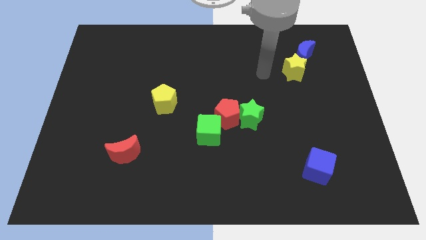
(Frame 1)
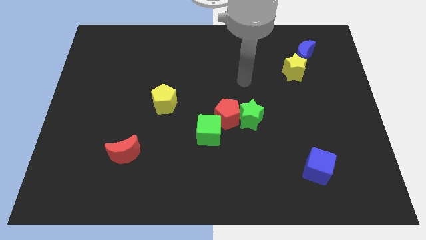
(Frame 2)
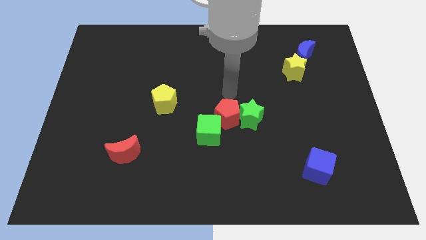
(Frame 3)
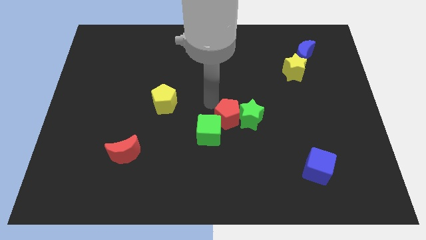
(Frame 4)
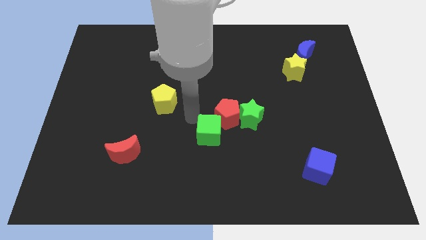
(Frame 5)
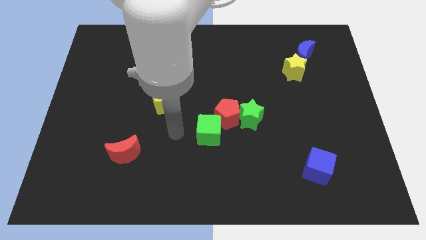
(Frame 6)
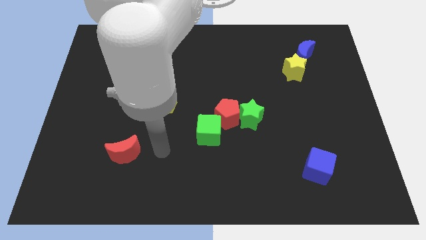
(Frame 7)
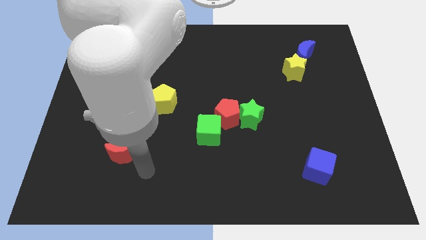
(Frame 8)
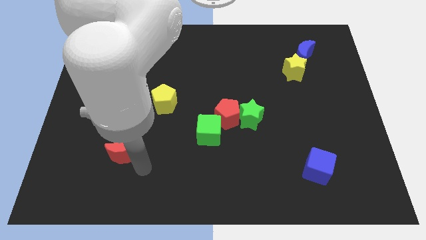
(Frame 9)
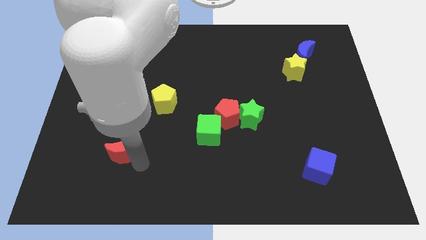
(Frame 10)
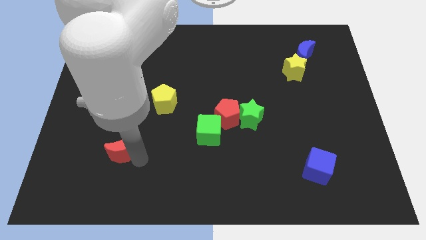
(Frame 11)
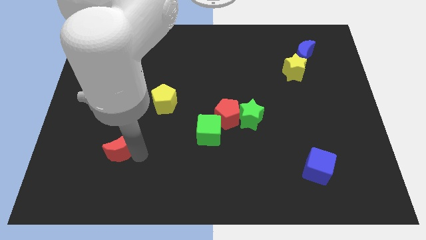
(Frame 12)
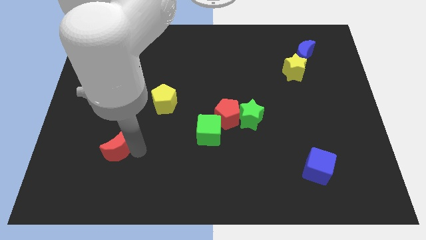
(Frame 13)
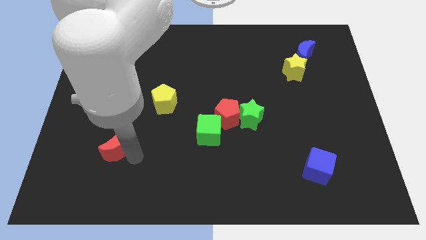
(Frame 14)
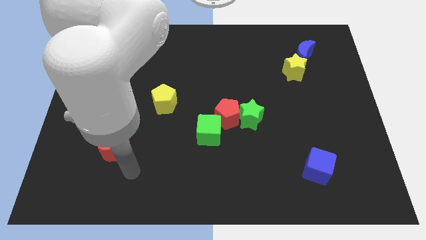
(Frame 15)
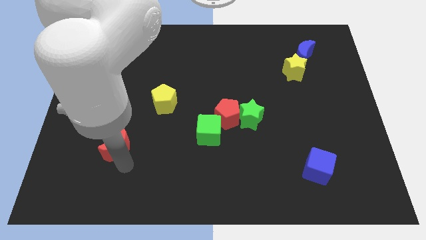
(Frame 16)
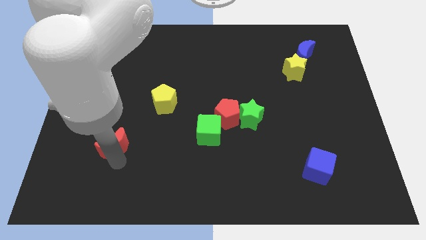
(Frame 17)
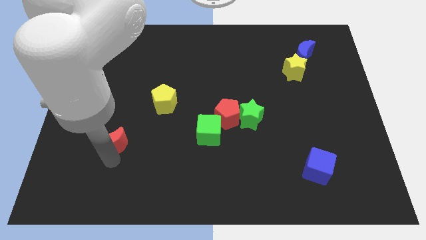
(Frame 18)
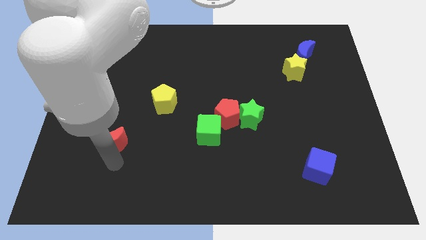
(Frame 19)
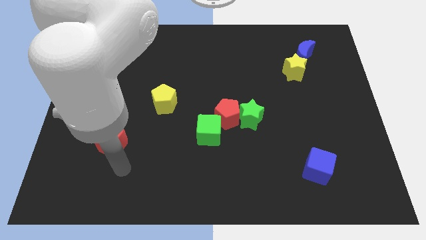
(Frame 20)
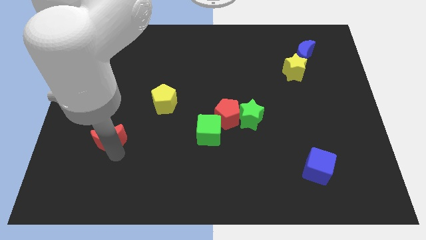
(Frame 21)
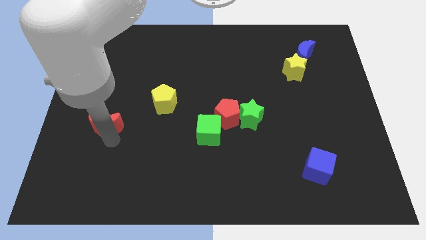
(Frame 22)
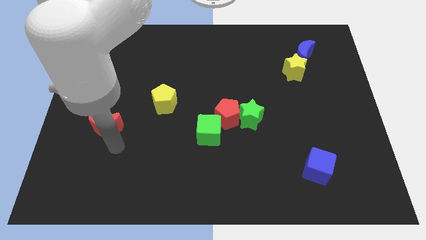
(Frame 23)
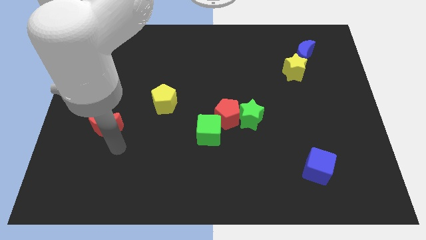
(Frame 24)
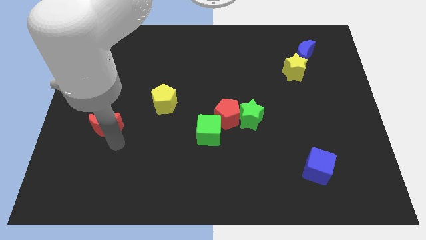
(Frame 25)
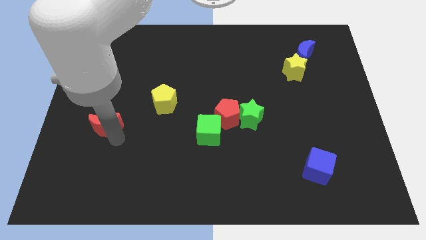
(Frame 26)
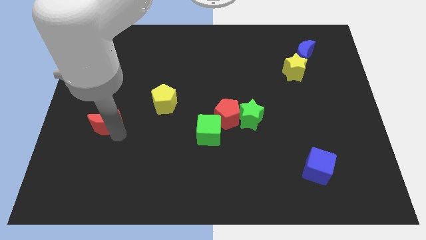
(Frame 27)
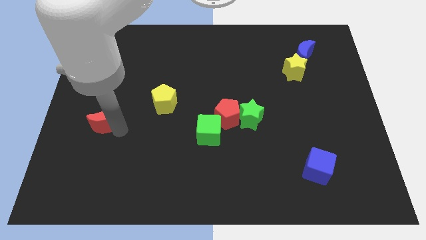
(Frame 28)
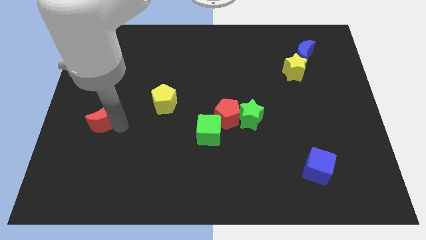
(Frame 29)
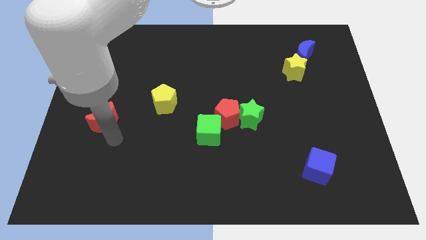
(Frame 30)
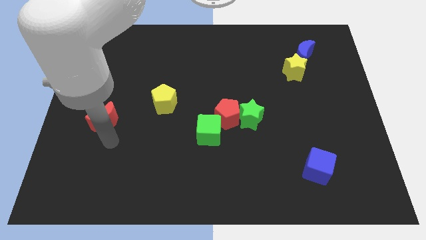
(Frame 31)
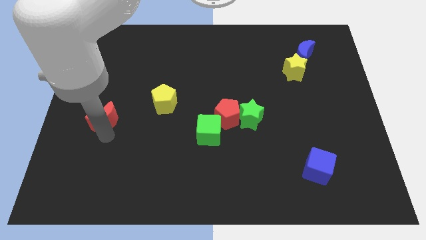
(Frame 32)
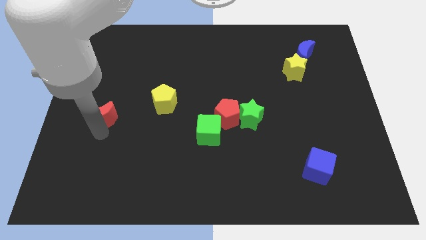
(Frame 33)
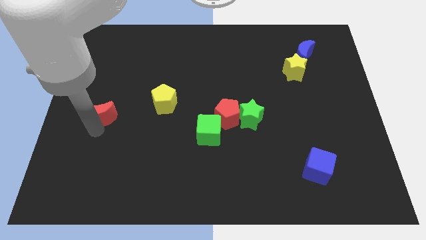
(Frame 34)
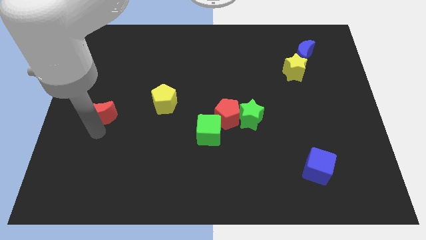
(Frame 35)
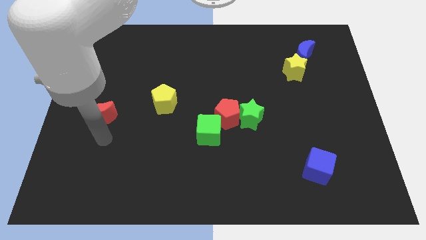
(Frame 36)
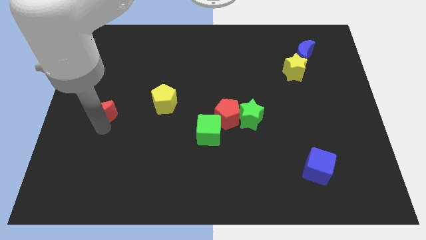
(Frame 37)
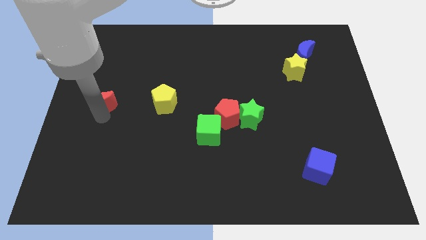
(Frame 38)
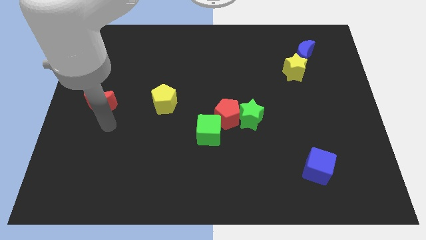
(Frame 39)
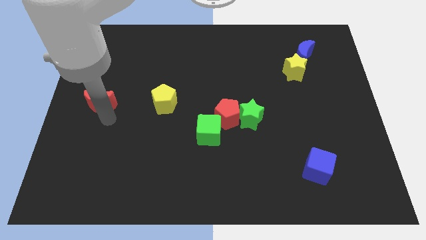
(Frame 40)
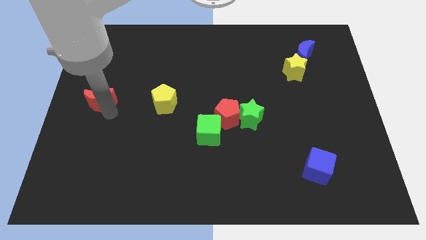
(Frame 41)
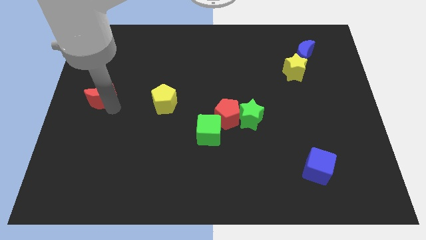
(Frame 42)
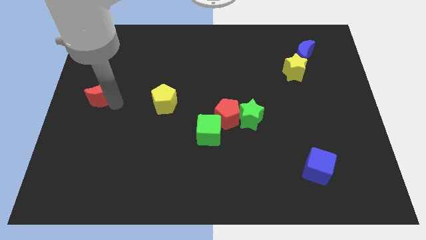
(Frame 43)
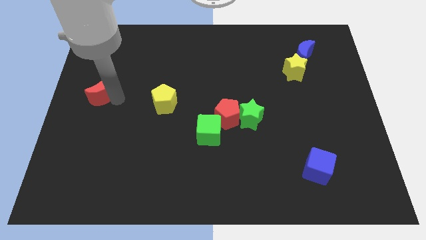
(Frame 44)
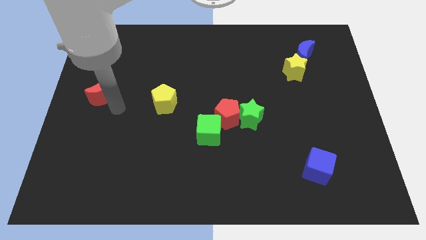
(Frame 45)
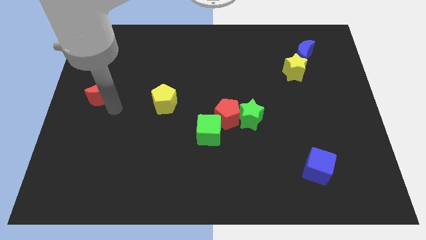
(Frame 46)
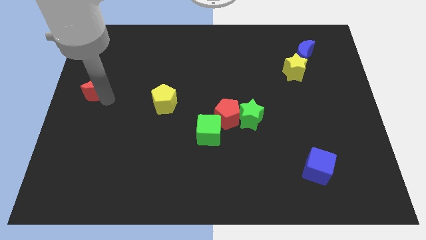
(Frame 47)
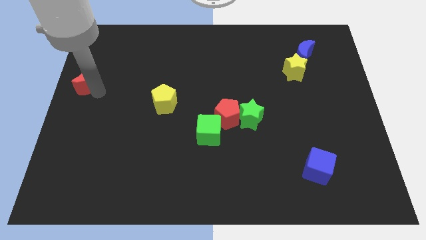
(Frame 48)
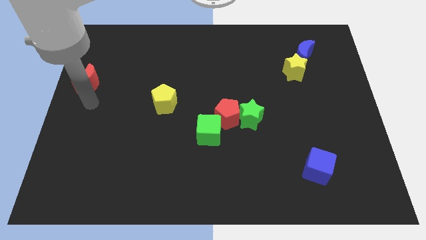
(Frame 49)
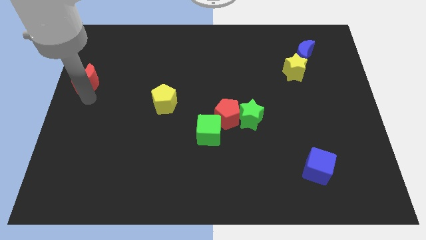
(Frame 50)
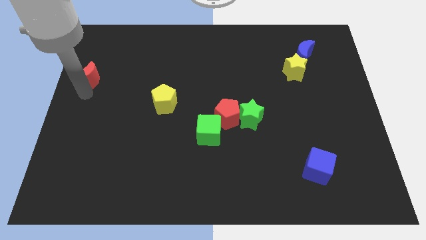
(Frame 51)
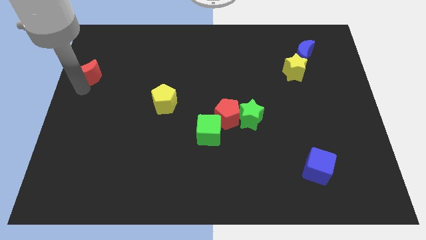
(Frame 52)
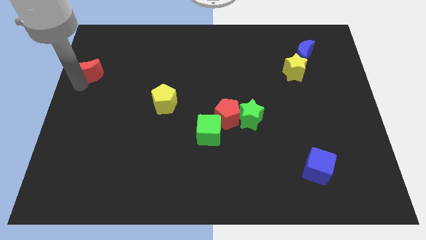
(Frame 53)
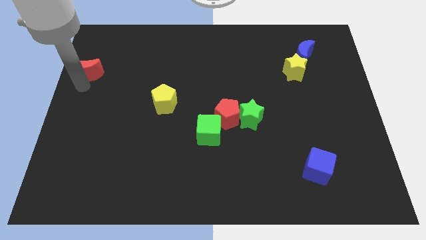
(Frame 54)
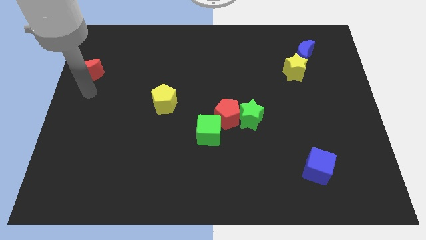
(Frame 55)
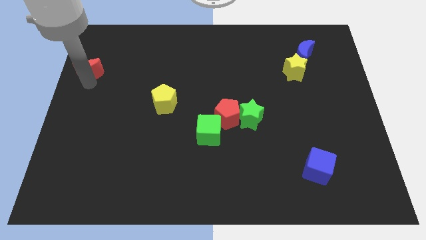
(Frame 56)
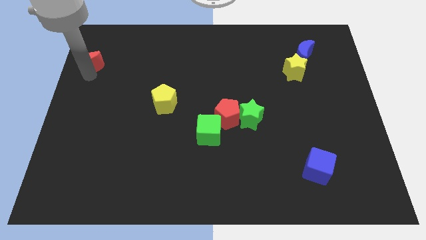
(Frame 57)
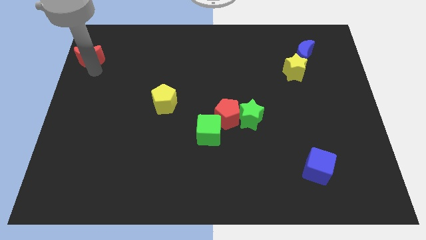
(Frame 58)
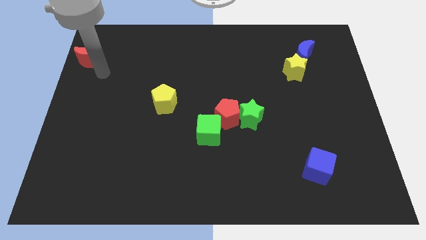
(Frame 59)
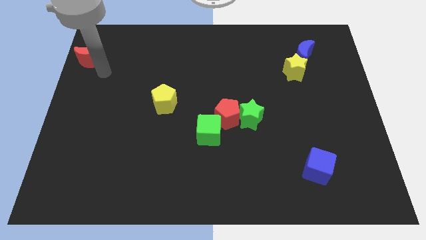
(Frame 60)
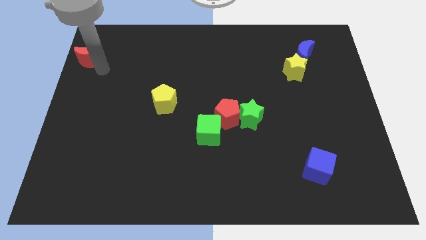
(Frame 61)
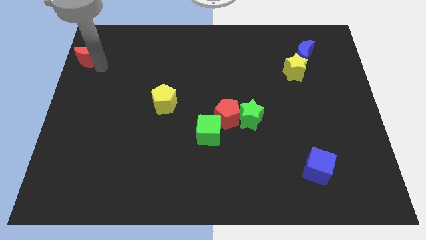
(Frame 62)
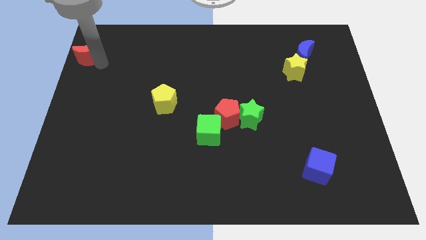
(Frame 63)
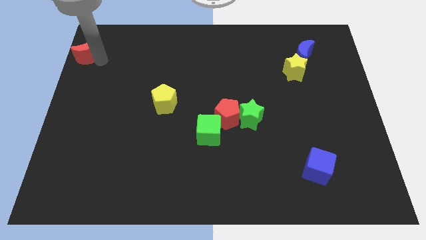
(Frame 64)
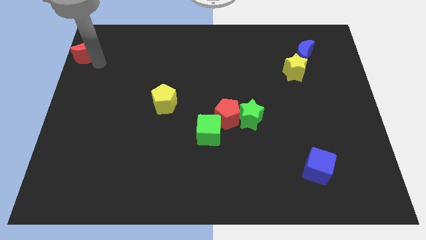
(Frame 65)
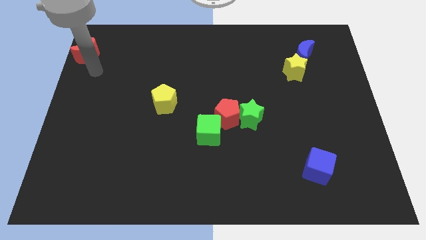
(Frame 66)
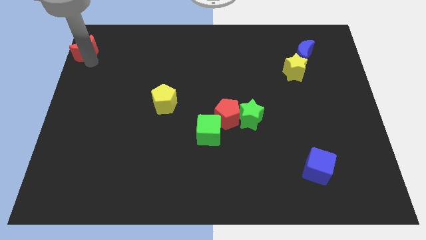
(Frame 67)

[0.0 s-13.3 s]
put the red moon to the top left
